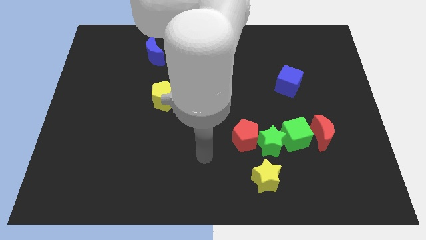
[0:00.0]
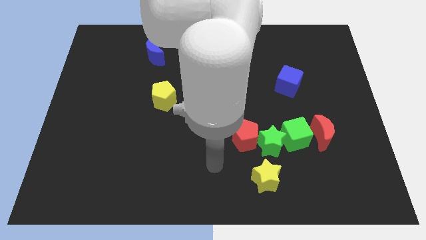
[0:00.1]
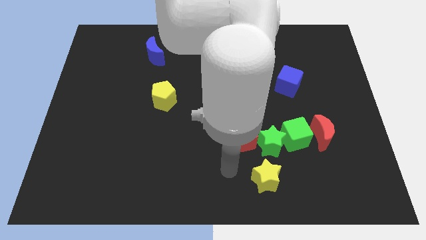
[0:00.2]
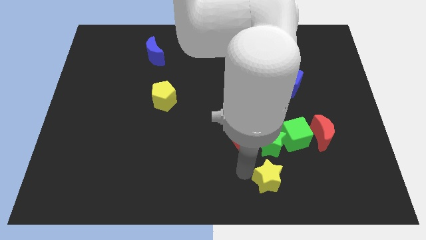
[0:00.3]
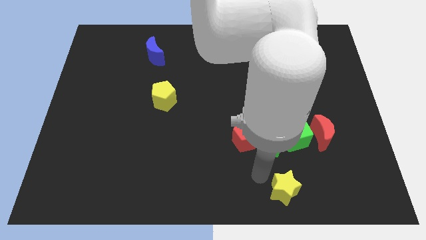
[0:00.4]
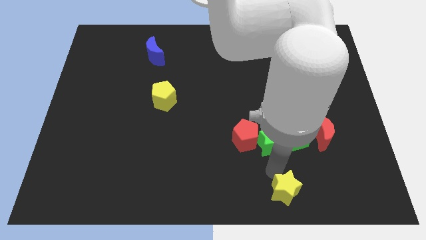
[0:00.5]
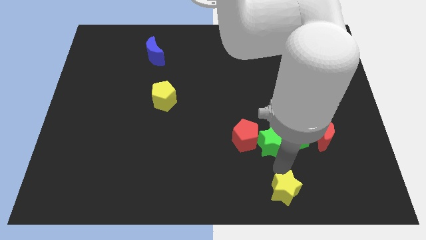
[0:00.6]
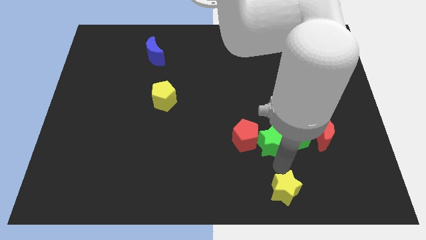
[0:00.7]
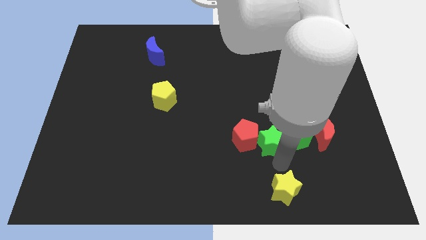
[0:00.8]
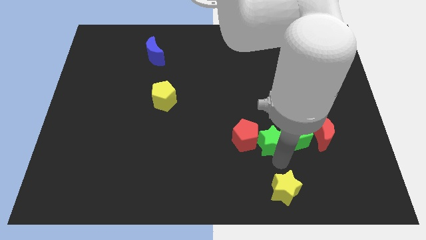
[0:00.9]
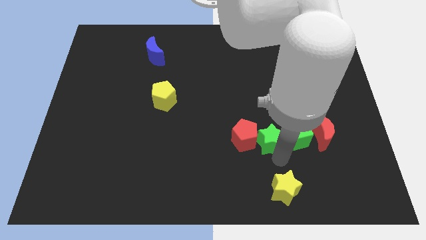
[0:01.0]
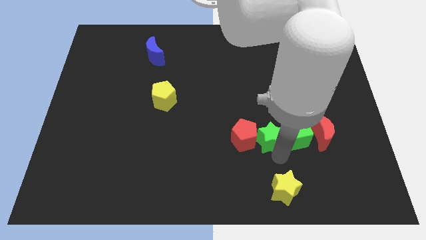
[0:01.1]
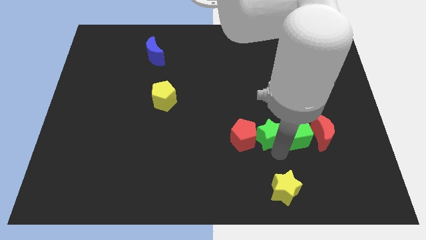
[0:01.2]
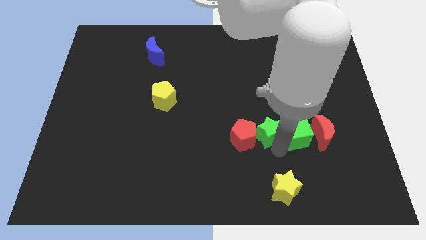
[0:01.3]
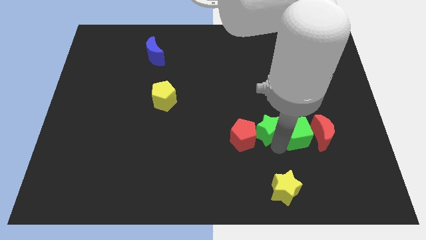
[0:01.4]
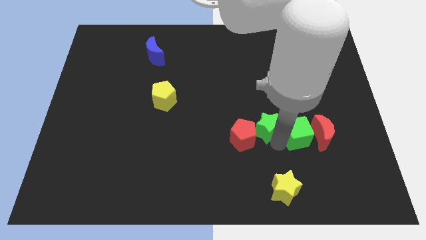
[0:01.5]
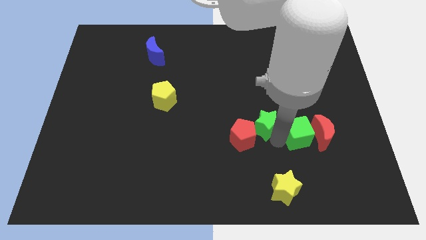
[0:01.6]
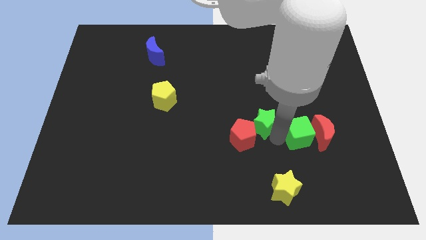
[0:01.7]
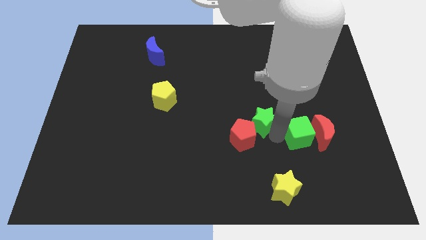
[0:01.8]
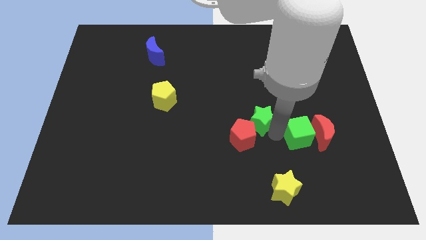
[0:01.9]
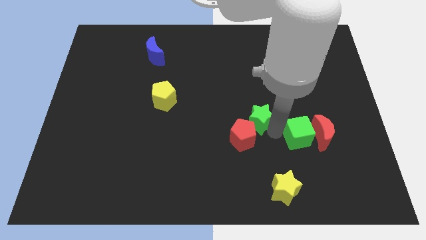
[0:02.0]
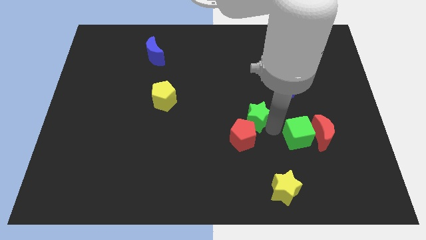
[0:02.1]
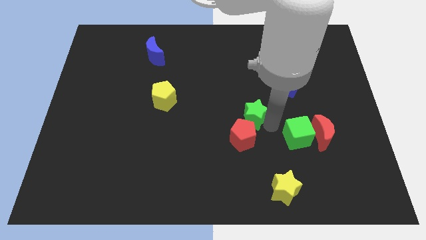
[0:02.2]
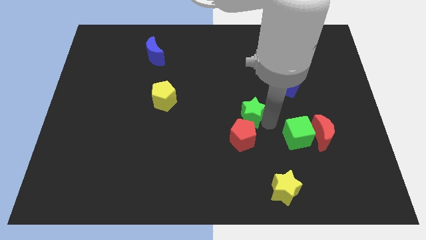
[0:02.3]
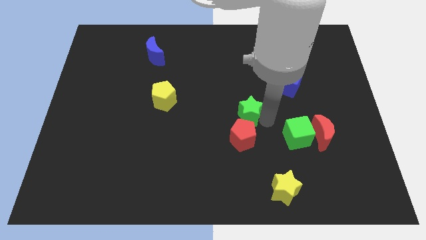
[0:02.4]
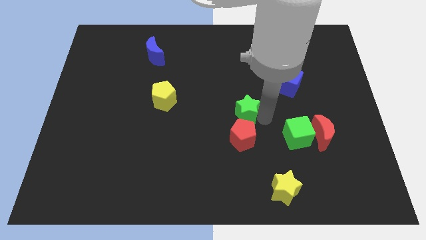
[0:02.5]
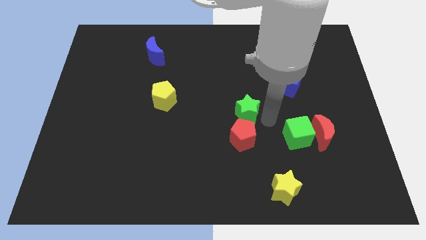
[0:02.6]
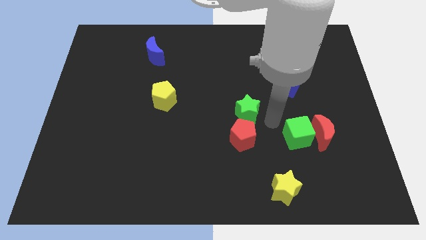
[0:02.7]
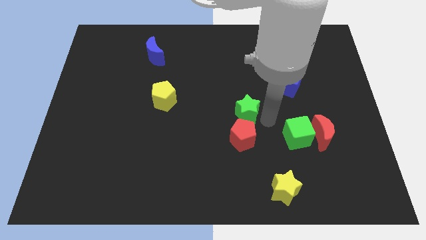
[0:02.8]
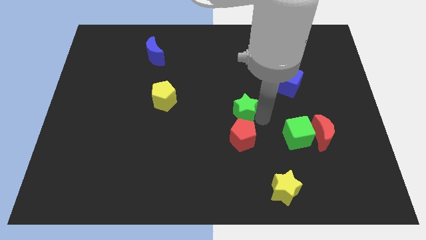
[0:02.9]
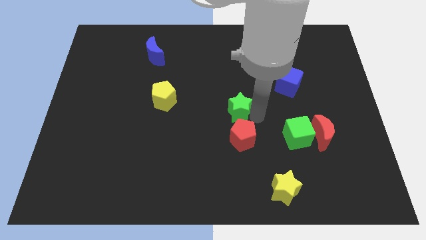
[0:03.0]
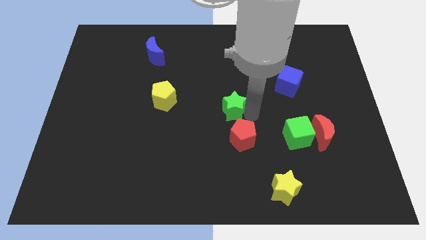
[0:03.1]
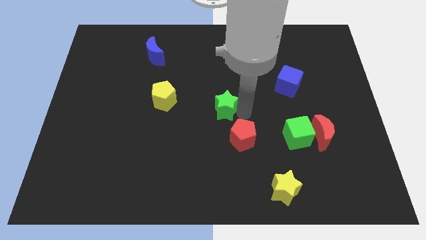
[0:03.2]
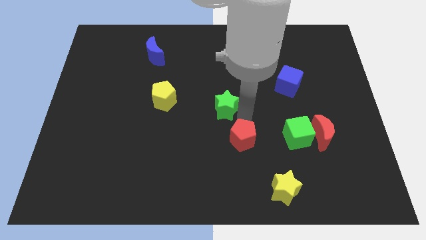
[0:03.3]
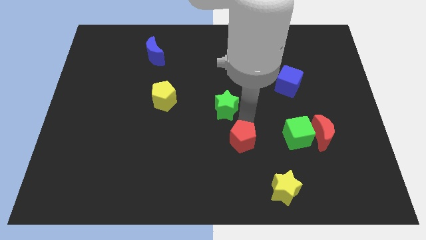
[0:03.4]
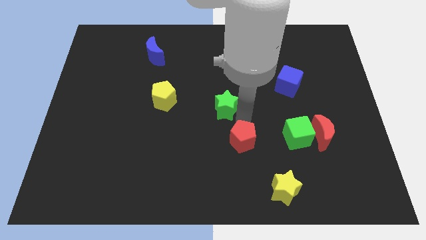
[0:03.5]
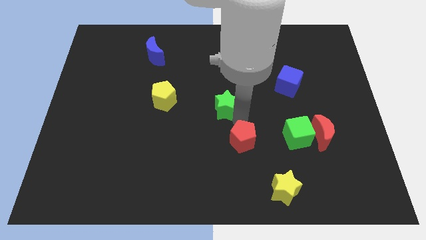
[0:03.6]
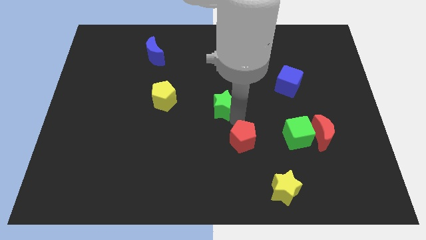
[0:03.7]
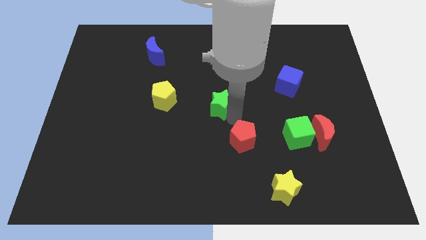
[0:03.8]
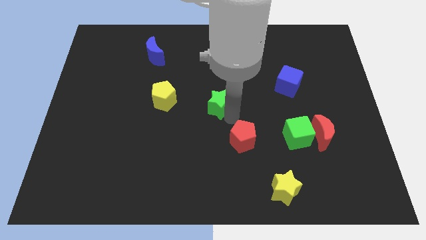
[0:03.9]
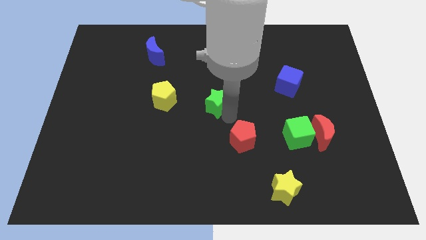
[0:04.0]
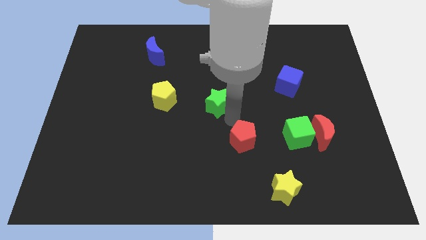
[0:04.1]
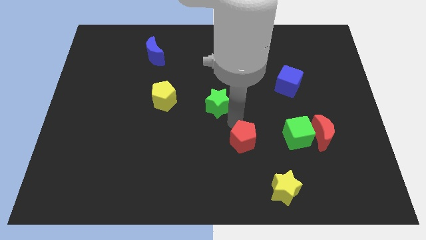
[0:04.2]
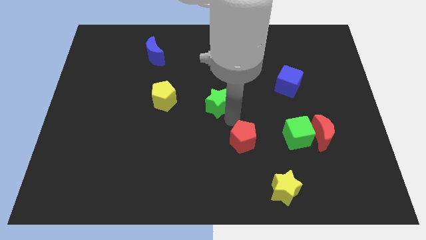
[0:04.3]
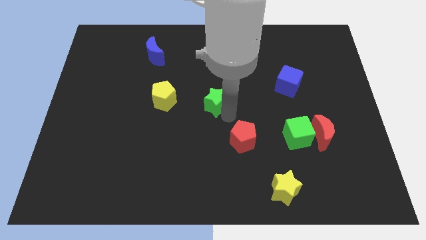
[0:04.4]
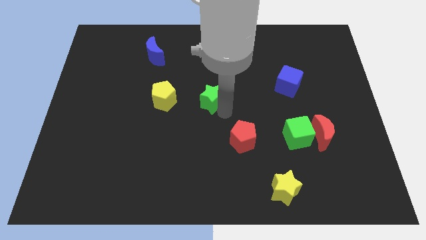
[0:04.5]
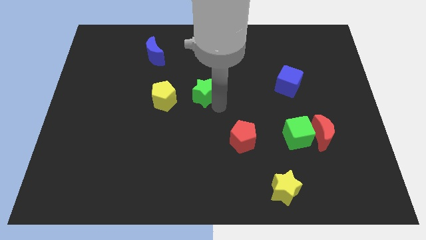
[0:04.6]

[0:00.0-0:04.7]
push the green star upwards and to the left diagonally

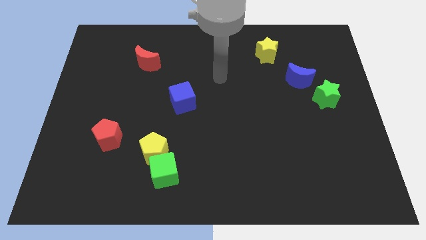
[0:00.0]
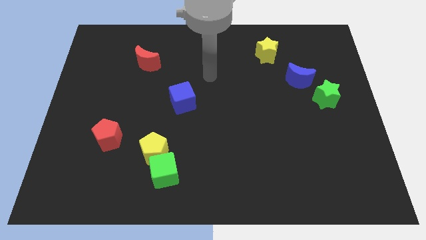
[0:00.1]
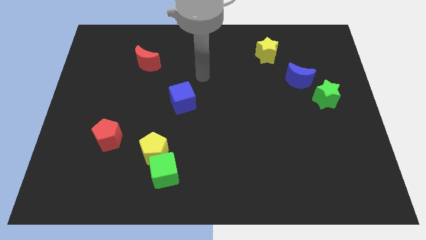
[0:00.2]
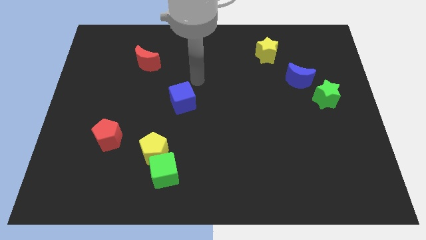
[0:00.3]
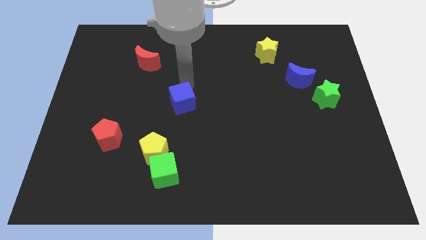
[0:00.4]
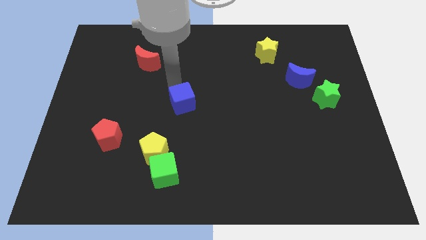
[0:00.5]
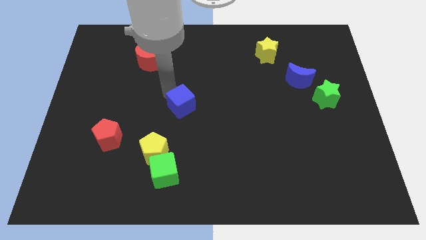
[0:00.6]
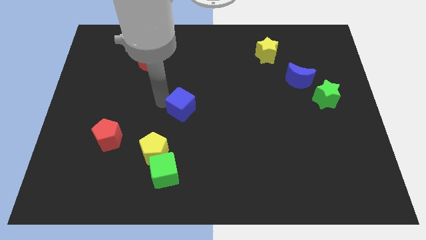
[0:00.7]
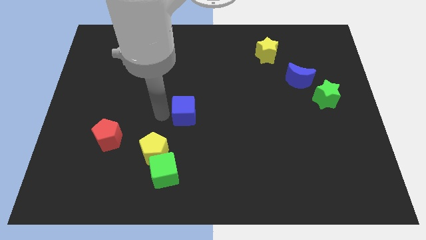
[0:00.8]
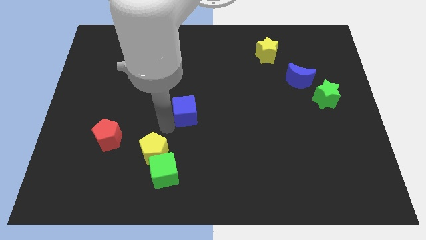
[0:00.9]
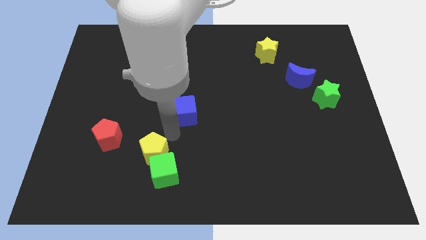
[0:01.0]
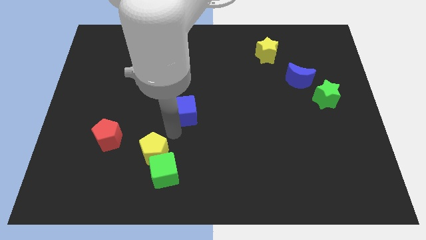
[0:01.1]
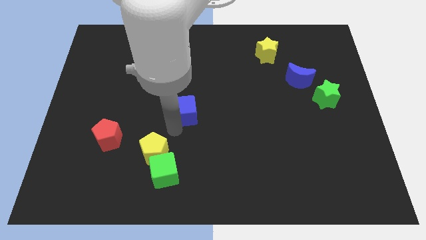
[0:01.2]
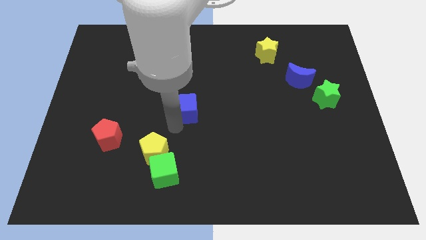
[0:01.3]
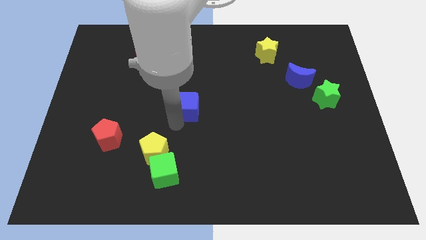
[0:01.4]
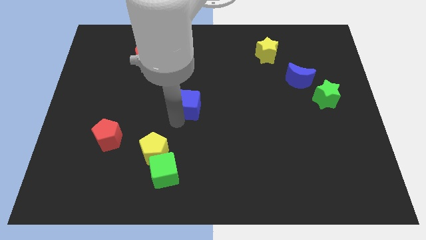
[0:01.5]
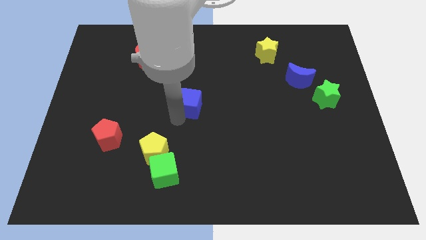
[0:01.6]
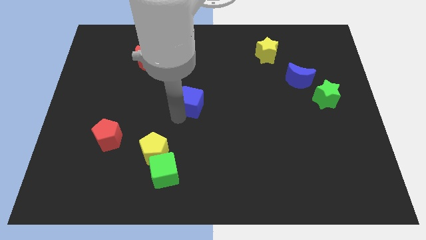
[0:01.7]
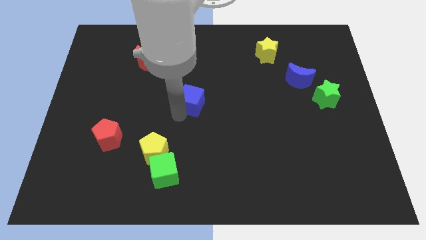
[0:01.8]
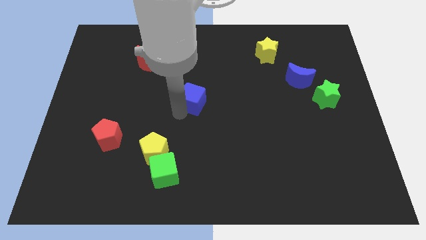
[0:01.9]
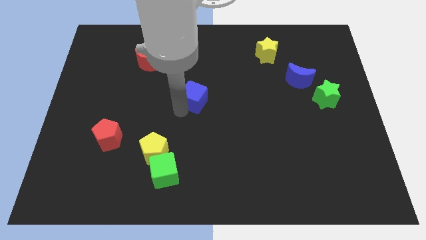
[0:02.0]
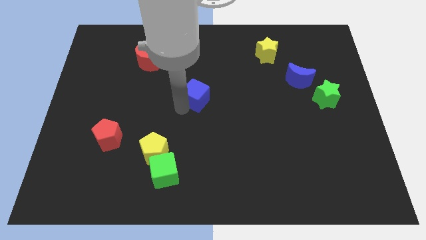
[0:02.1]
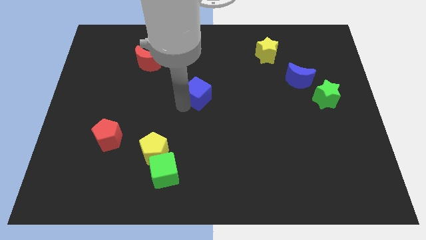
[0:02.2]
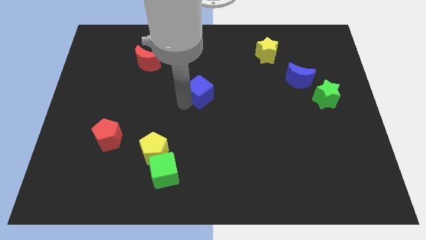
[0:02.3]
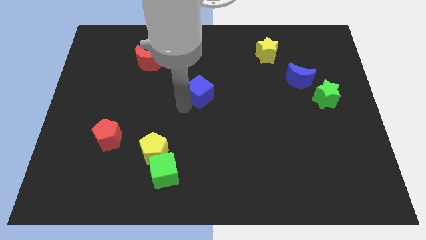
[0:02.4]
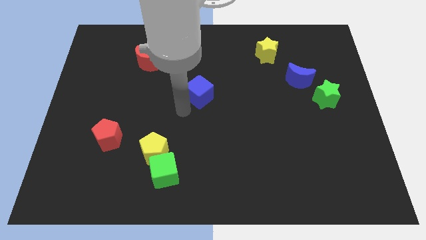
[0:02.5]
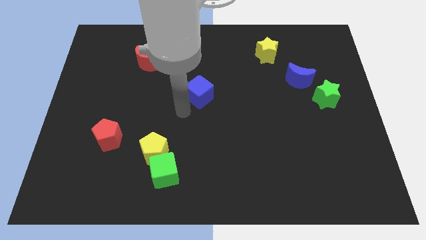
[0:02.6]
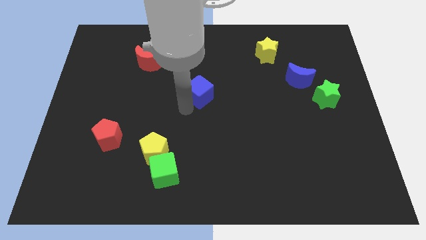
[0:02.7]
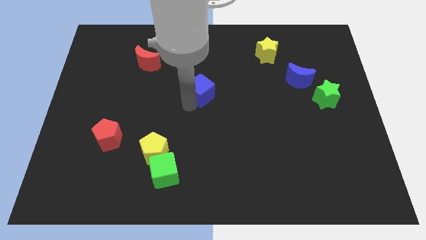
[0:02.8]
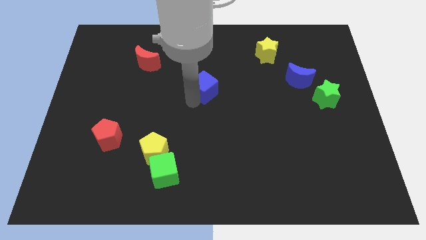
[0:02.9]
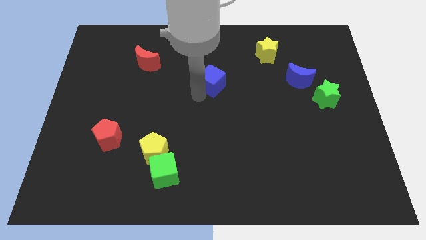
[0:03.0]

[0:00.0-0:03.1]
slide the blue cube upwards and right diagonally a bit

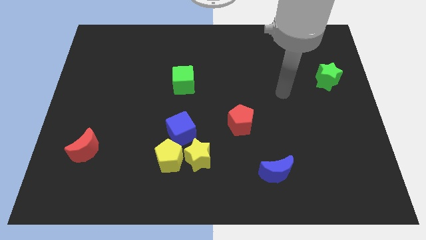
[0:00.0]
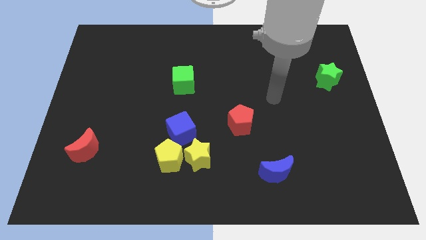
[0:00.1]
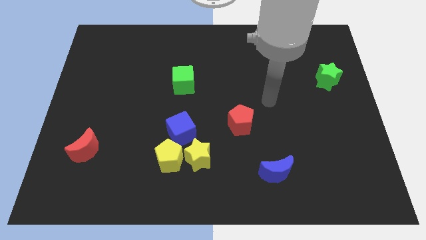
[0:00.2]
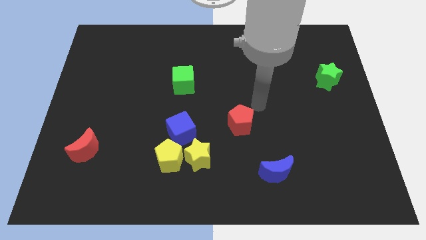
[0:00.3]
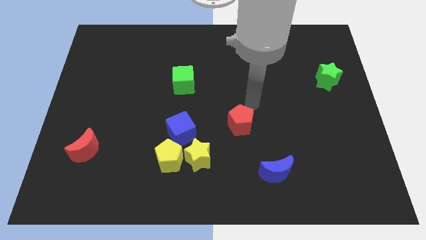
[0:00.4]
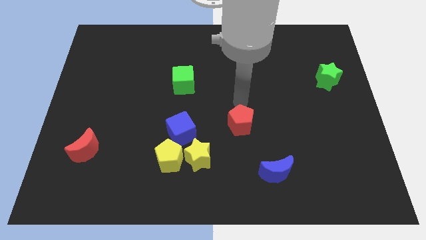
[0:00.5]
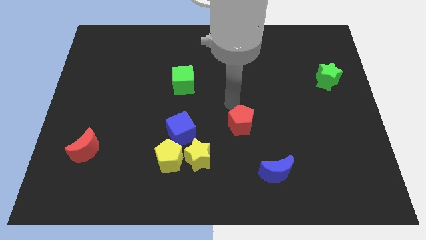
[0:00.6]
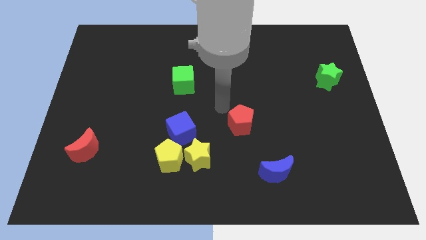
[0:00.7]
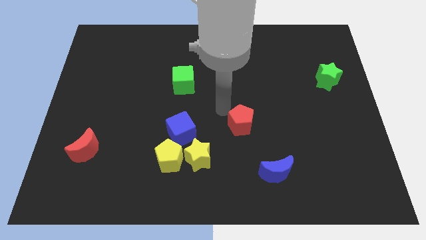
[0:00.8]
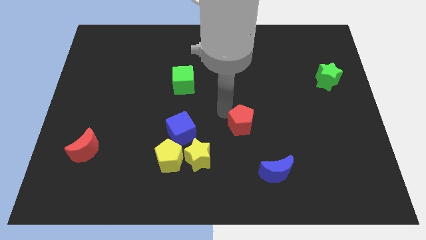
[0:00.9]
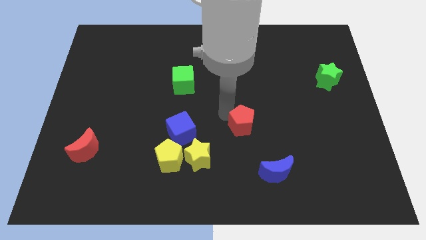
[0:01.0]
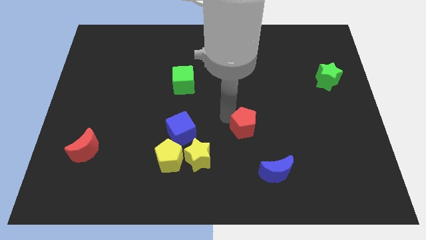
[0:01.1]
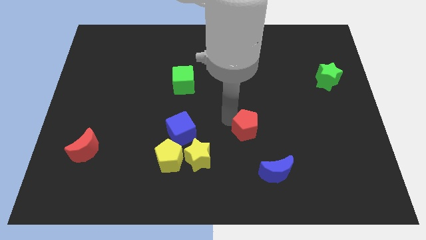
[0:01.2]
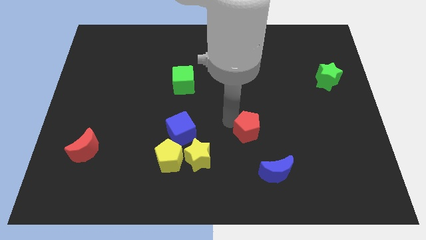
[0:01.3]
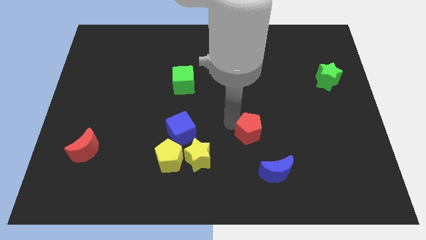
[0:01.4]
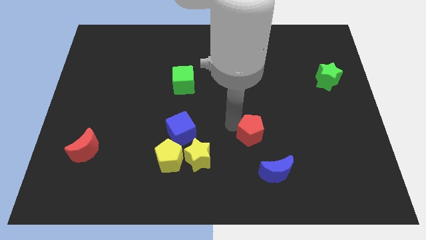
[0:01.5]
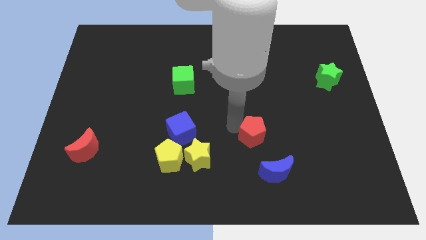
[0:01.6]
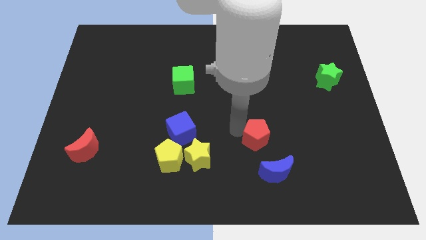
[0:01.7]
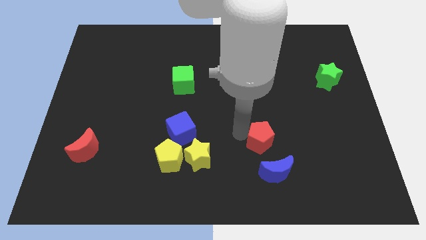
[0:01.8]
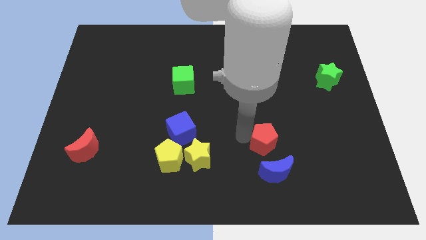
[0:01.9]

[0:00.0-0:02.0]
slightly push the red pentagon downwards and right diagonally
